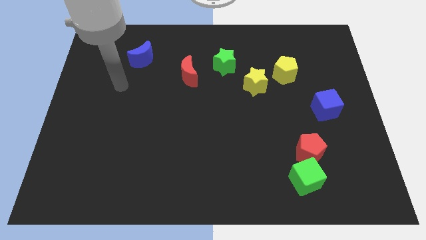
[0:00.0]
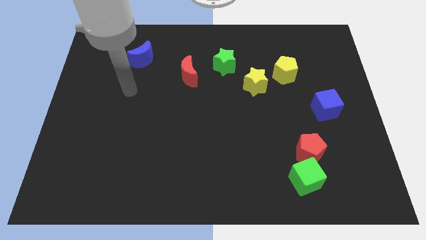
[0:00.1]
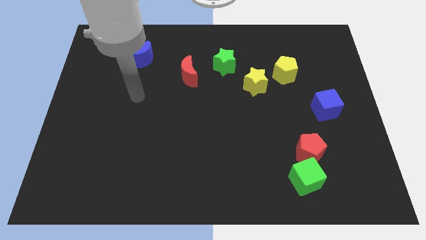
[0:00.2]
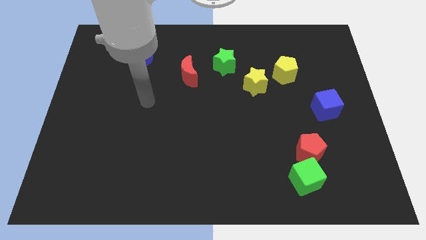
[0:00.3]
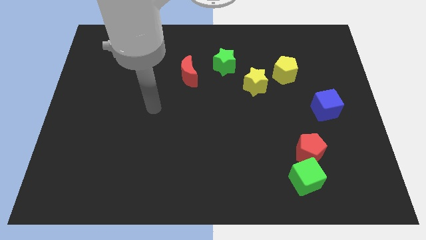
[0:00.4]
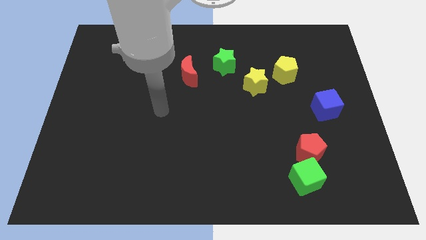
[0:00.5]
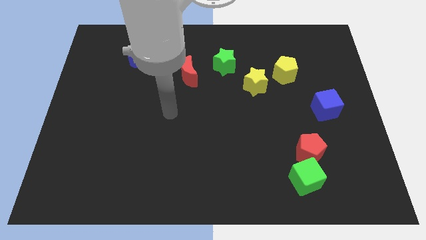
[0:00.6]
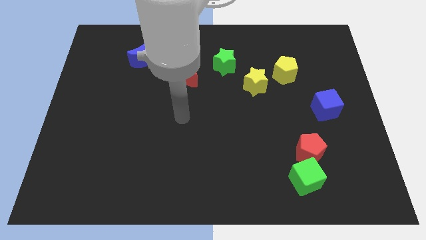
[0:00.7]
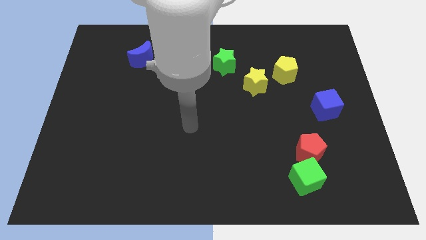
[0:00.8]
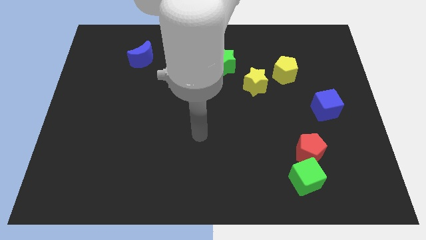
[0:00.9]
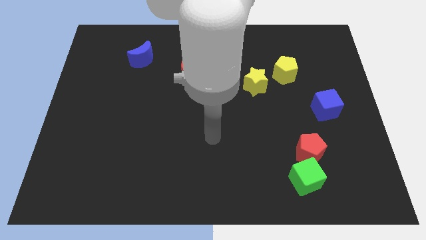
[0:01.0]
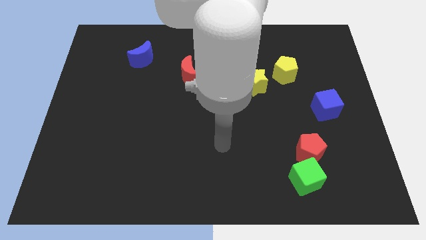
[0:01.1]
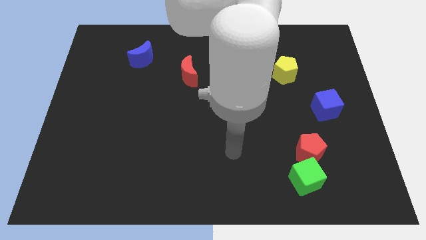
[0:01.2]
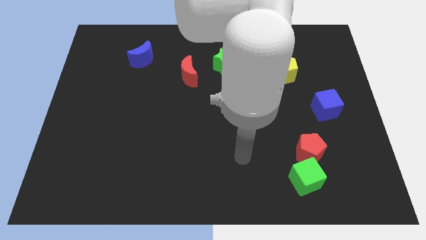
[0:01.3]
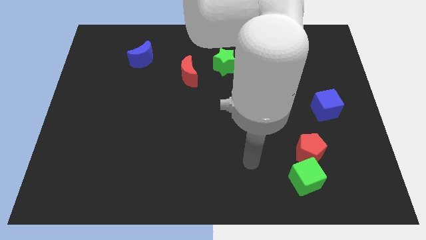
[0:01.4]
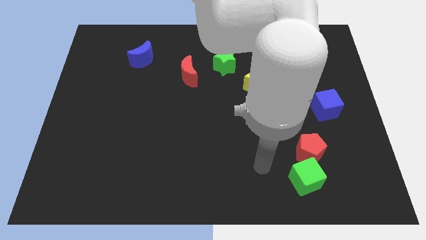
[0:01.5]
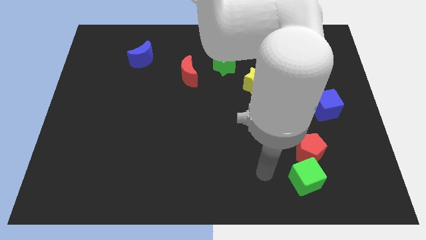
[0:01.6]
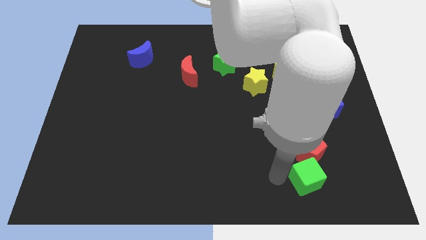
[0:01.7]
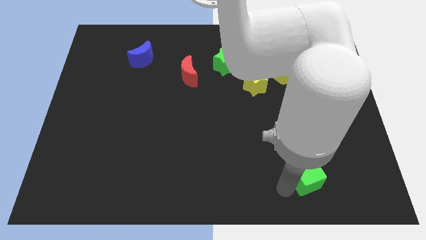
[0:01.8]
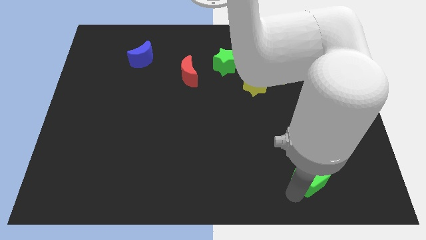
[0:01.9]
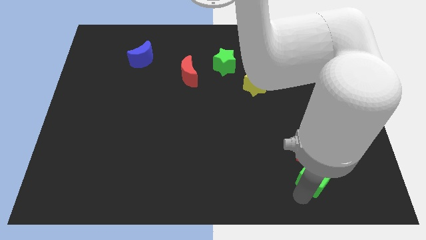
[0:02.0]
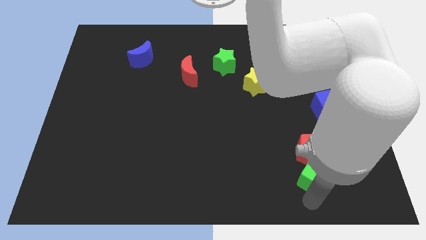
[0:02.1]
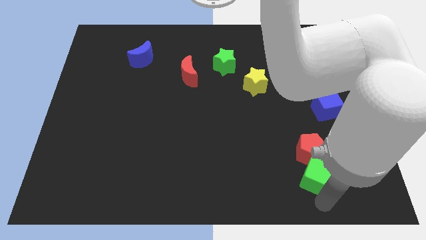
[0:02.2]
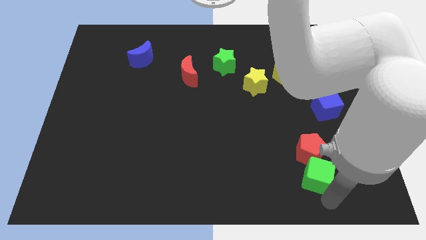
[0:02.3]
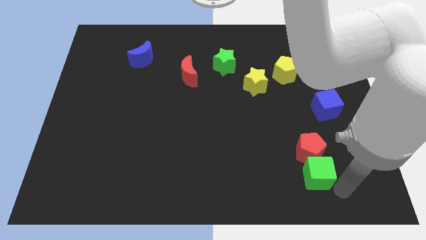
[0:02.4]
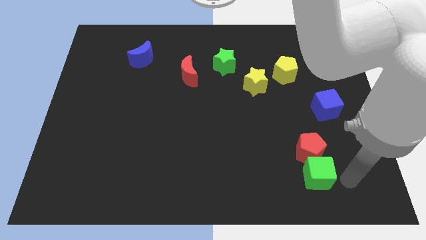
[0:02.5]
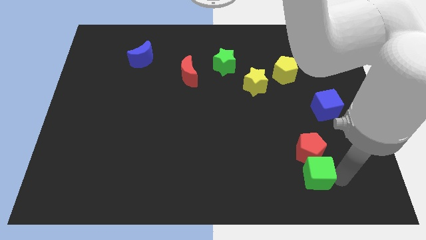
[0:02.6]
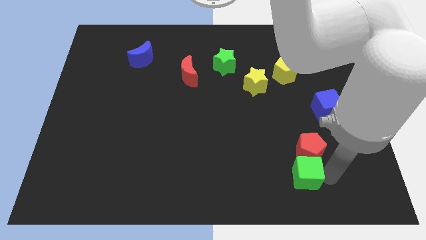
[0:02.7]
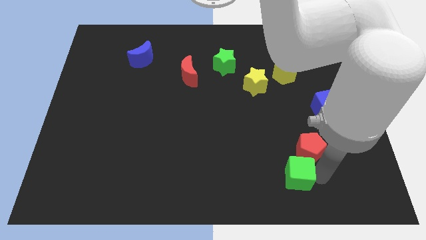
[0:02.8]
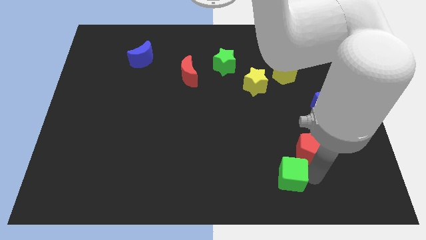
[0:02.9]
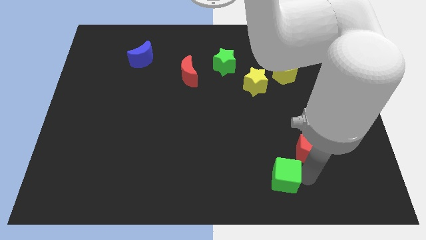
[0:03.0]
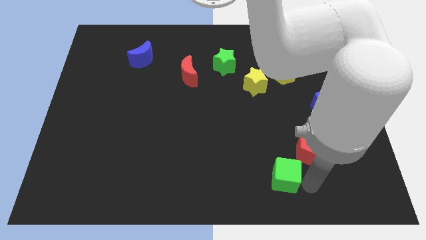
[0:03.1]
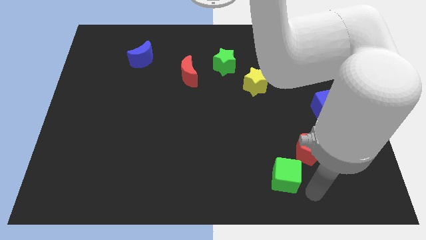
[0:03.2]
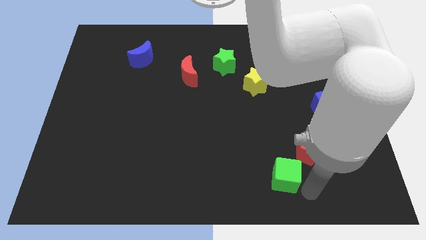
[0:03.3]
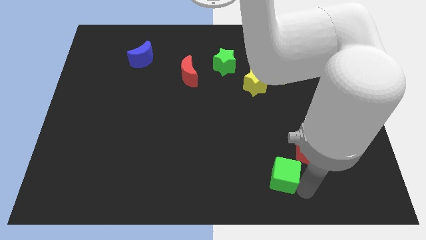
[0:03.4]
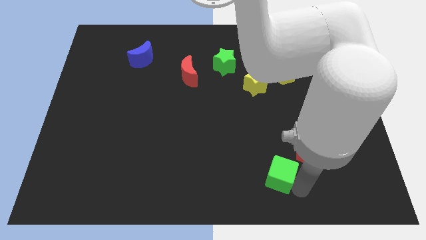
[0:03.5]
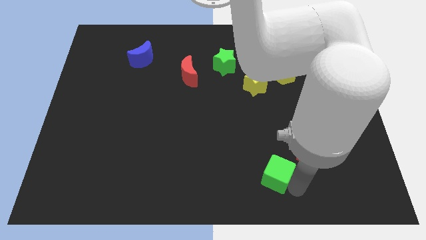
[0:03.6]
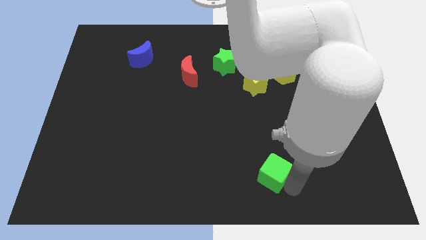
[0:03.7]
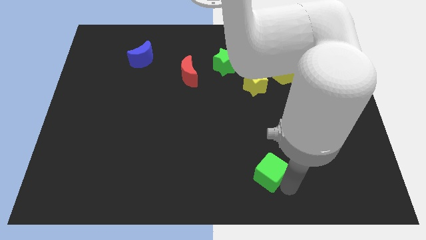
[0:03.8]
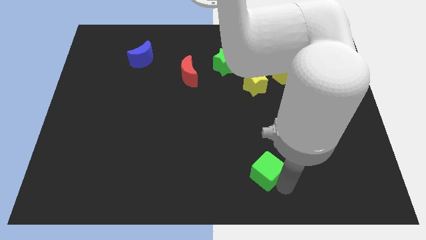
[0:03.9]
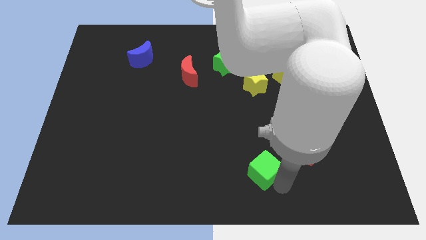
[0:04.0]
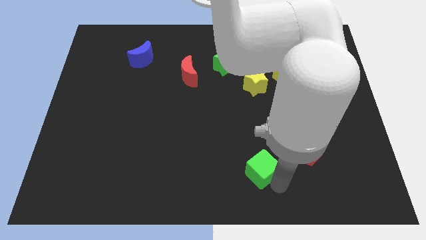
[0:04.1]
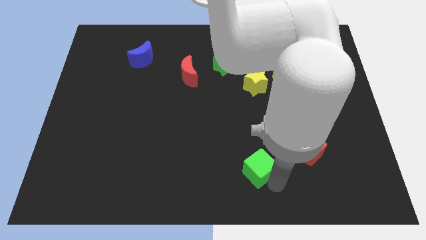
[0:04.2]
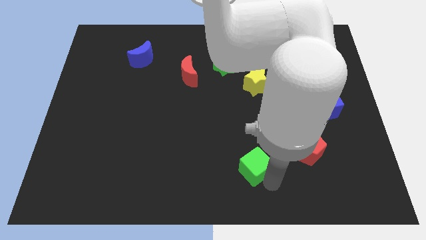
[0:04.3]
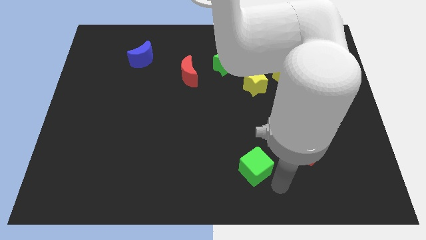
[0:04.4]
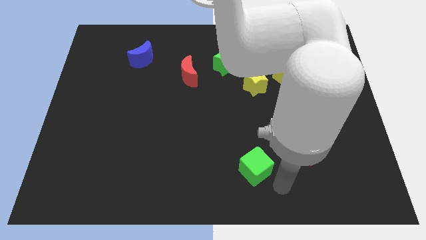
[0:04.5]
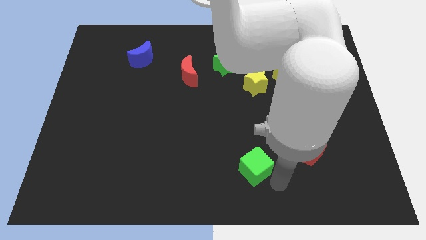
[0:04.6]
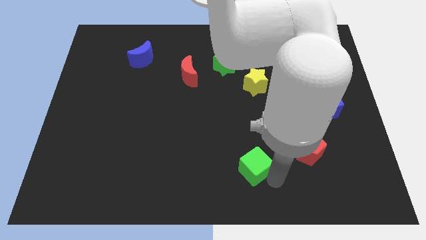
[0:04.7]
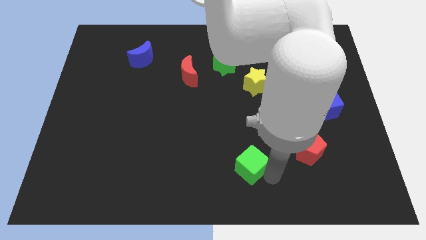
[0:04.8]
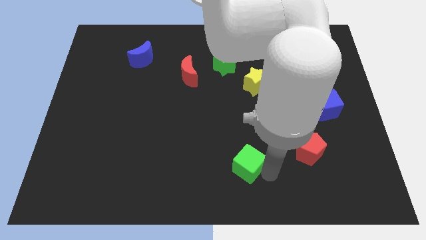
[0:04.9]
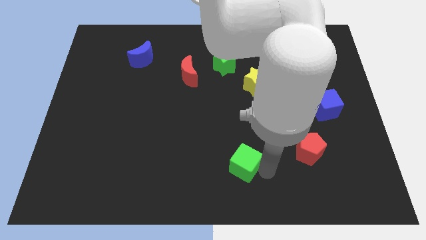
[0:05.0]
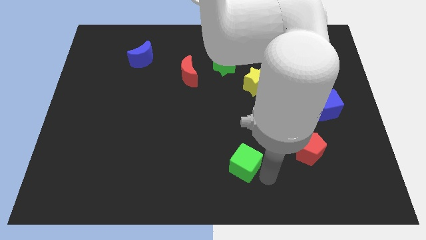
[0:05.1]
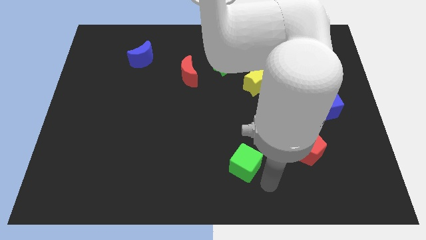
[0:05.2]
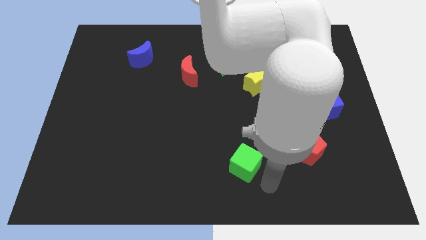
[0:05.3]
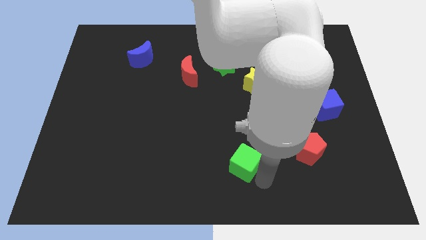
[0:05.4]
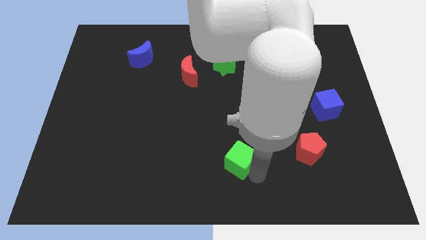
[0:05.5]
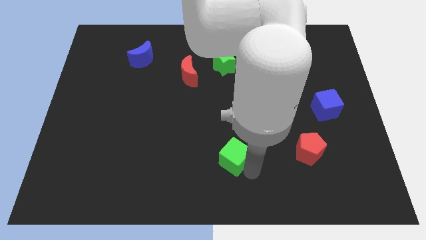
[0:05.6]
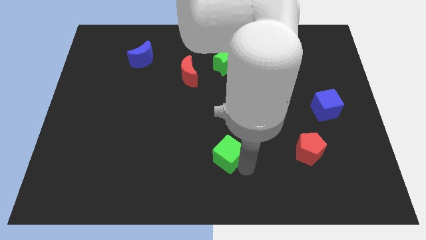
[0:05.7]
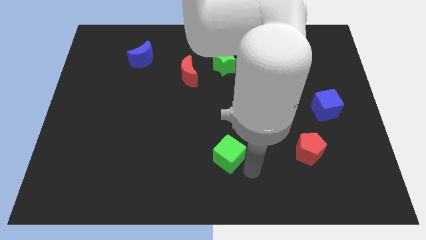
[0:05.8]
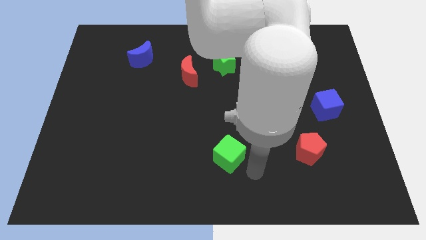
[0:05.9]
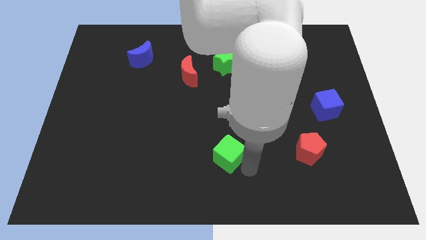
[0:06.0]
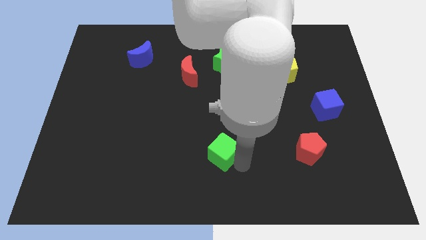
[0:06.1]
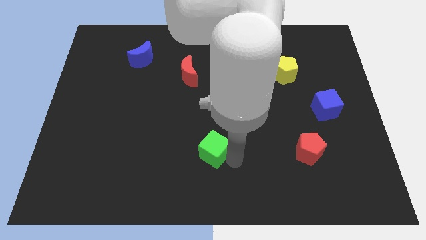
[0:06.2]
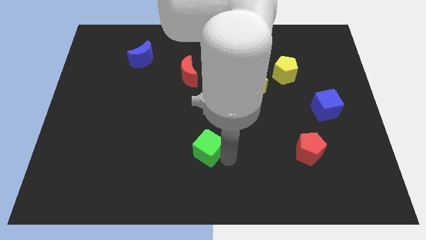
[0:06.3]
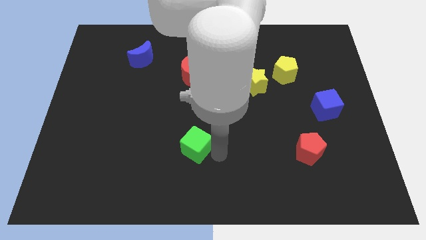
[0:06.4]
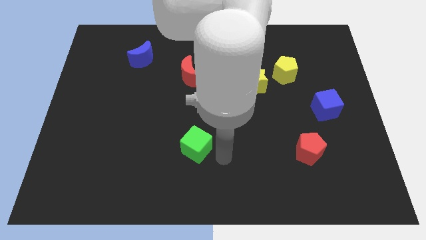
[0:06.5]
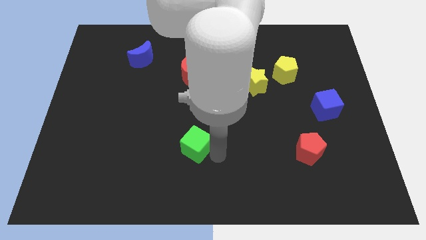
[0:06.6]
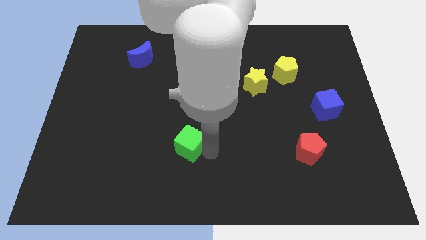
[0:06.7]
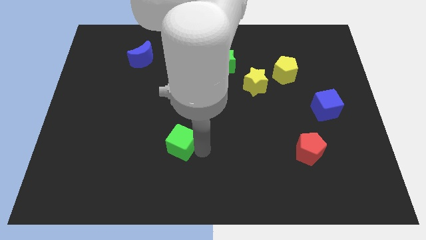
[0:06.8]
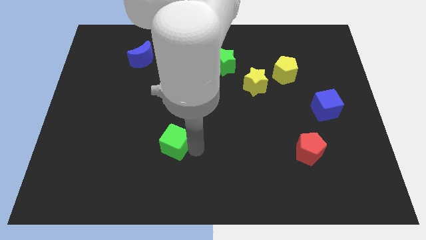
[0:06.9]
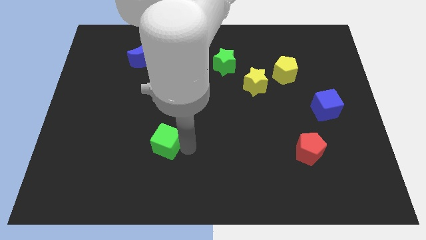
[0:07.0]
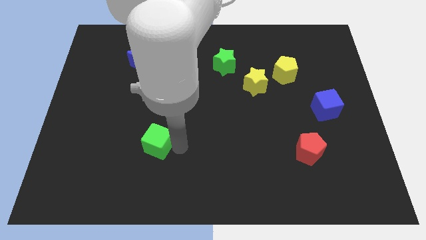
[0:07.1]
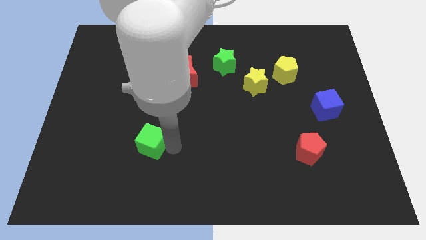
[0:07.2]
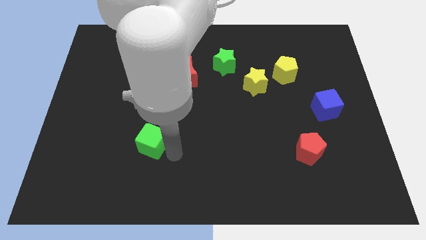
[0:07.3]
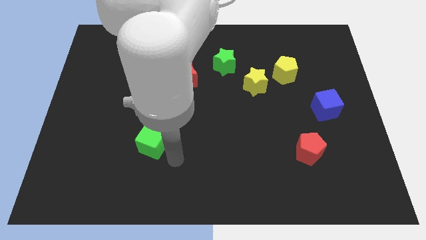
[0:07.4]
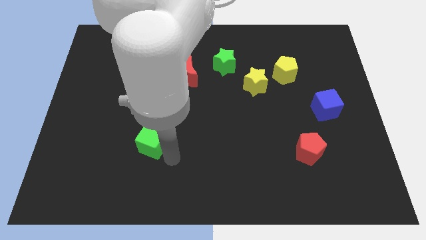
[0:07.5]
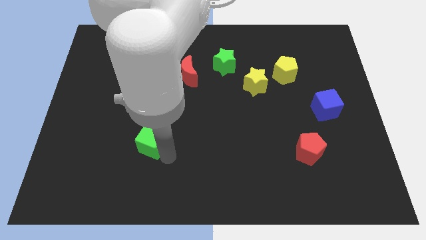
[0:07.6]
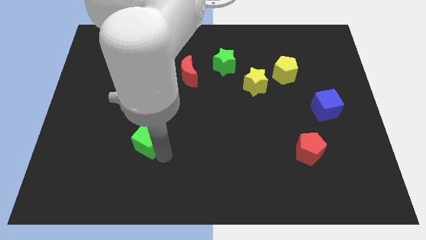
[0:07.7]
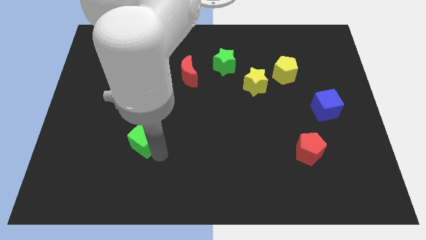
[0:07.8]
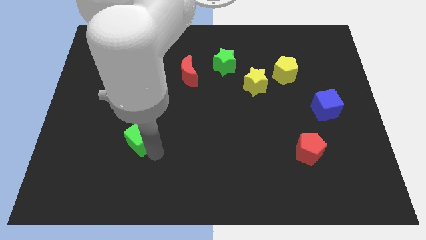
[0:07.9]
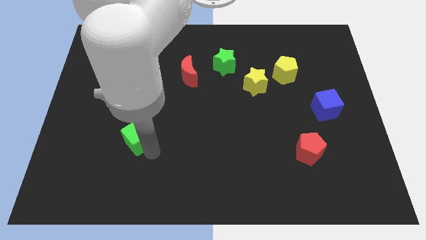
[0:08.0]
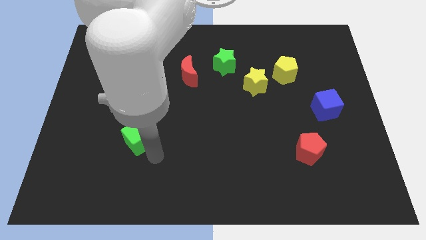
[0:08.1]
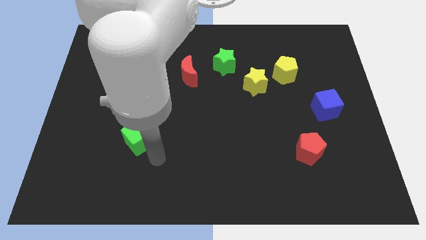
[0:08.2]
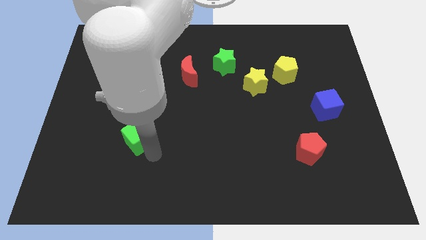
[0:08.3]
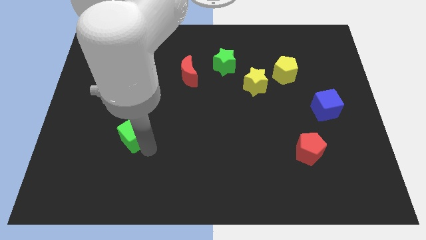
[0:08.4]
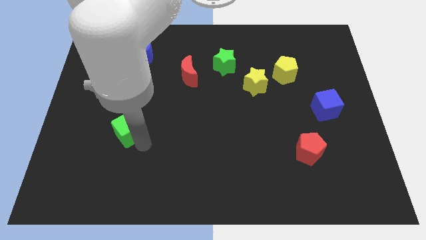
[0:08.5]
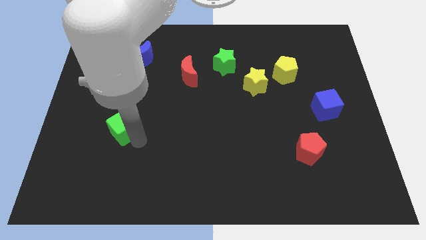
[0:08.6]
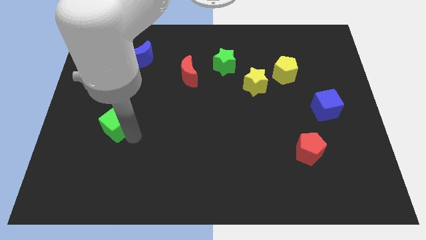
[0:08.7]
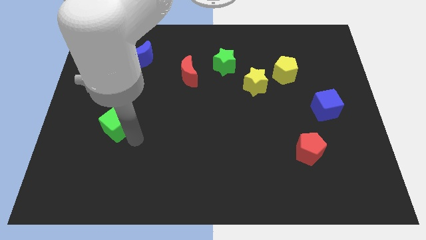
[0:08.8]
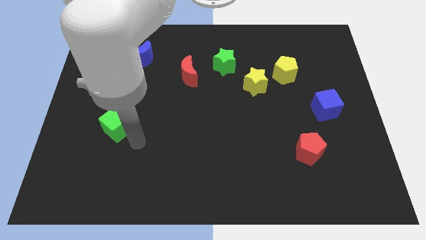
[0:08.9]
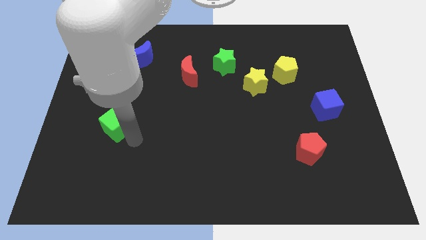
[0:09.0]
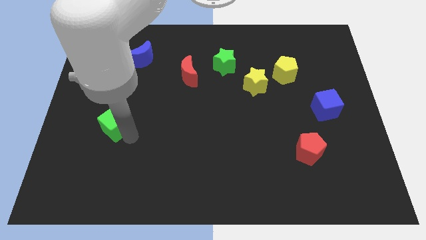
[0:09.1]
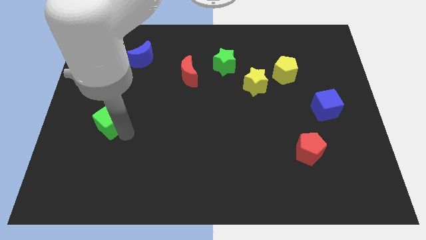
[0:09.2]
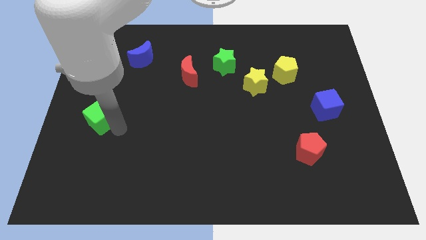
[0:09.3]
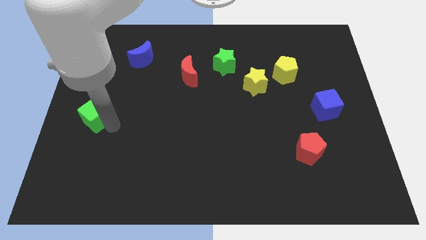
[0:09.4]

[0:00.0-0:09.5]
put the green cube to the left side of the board
